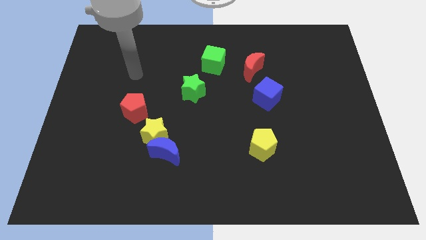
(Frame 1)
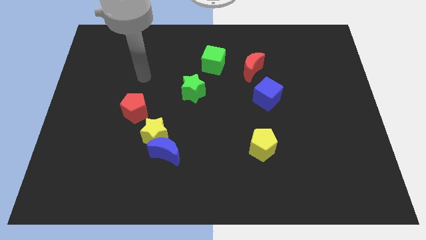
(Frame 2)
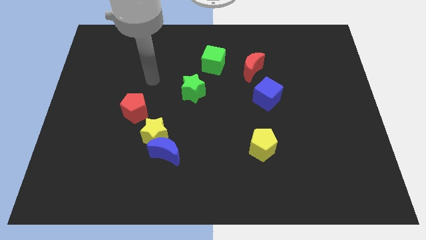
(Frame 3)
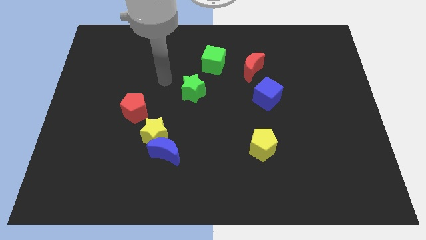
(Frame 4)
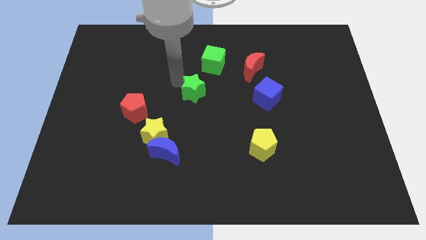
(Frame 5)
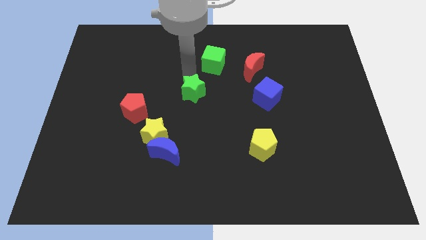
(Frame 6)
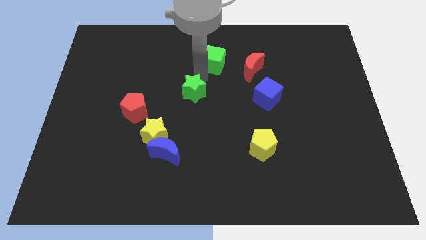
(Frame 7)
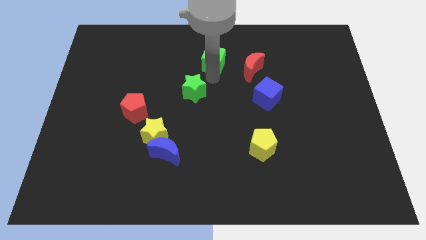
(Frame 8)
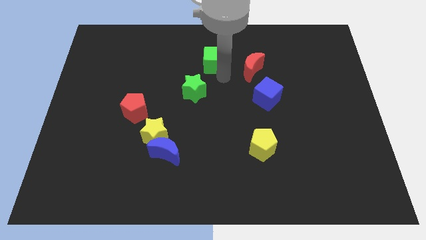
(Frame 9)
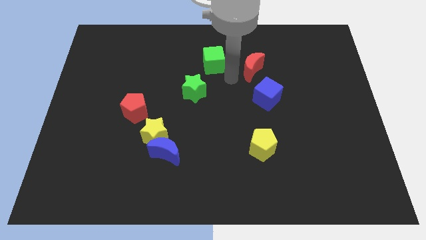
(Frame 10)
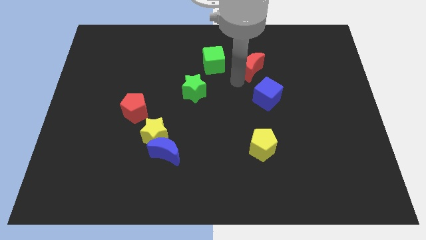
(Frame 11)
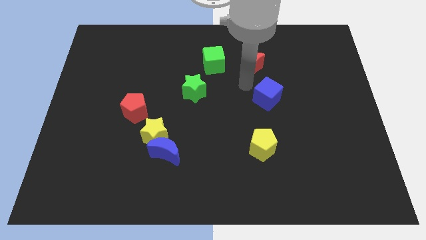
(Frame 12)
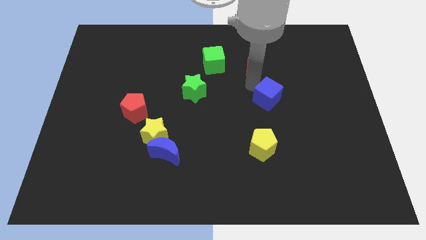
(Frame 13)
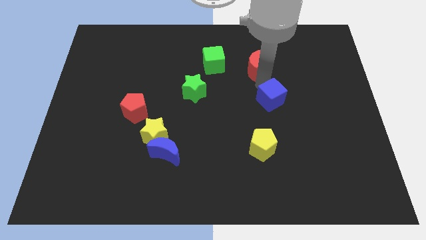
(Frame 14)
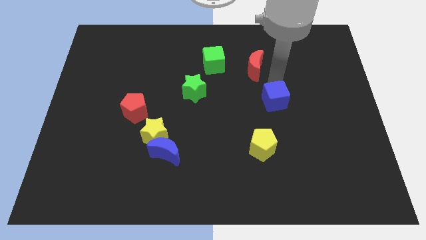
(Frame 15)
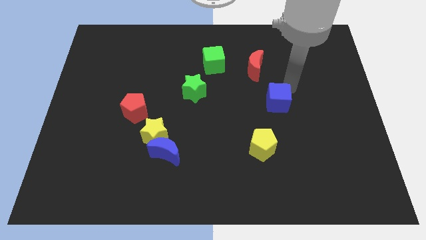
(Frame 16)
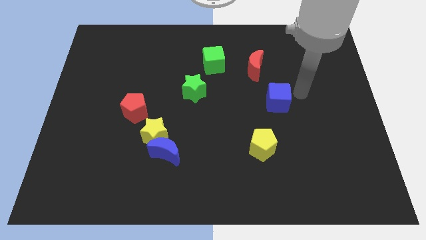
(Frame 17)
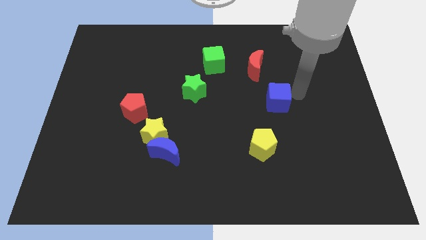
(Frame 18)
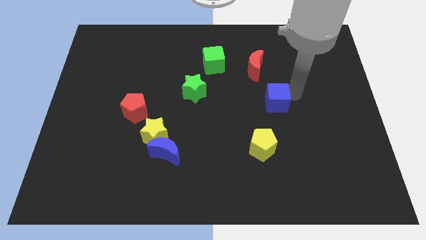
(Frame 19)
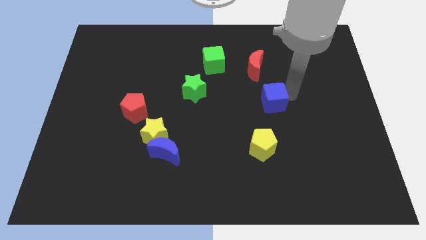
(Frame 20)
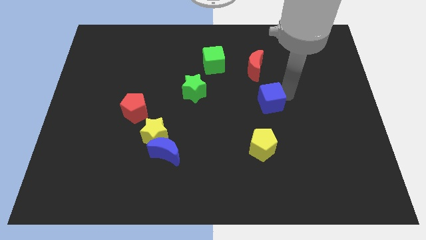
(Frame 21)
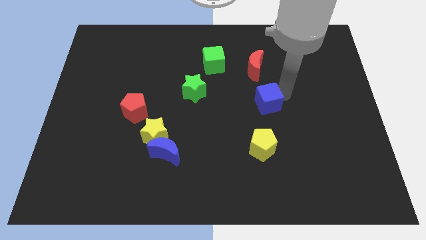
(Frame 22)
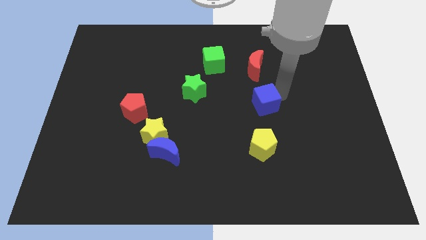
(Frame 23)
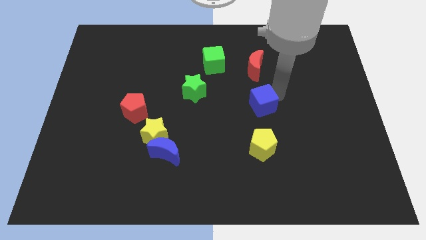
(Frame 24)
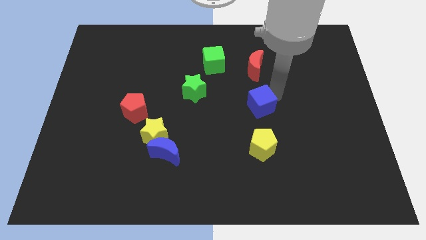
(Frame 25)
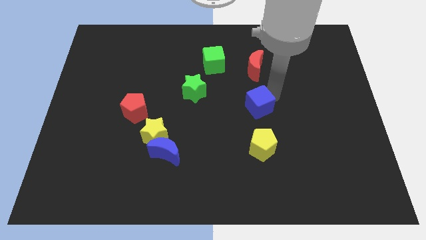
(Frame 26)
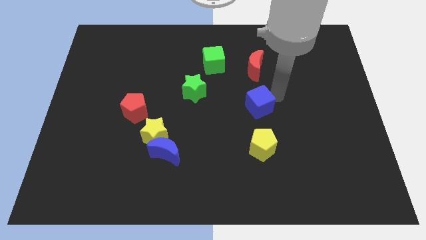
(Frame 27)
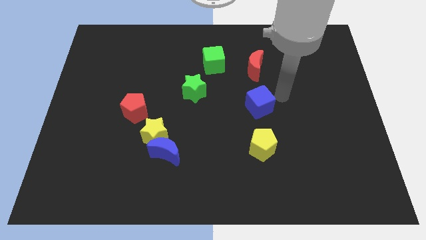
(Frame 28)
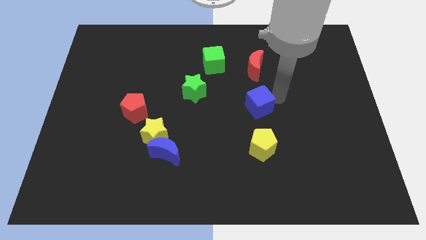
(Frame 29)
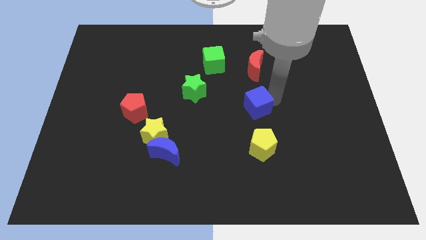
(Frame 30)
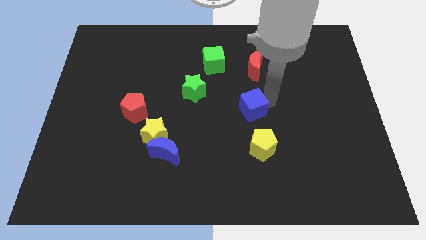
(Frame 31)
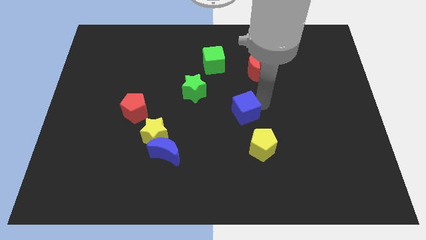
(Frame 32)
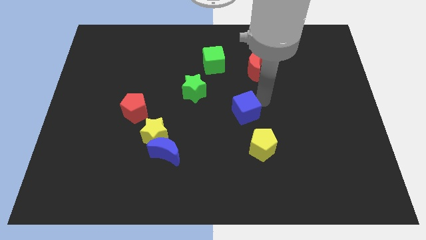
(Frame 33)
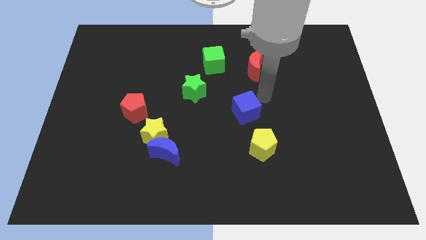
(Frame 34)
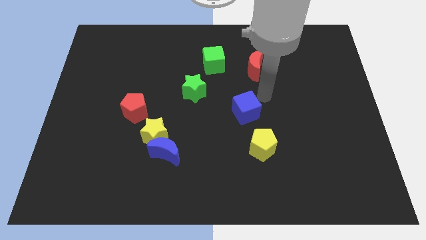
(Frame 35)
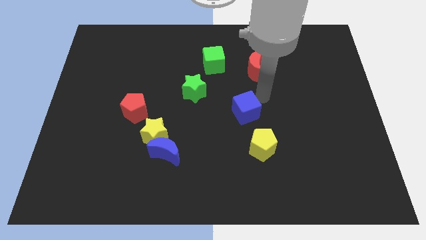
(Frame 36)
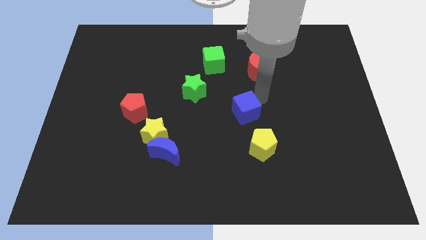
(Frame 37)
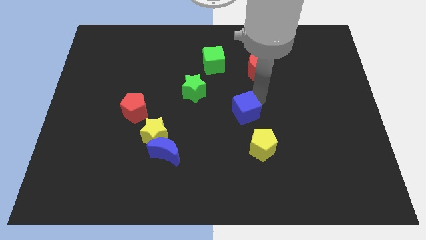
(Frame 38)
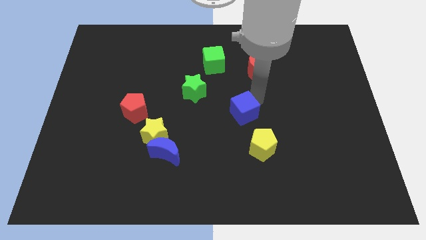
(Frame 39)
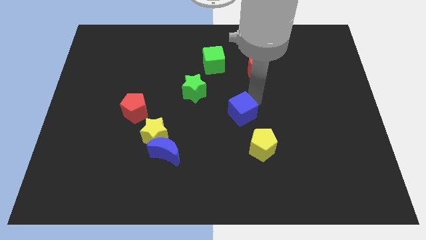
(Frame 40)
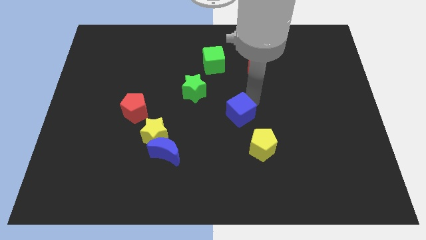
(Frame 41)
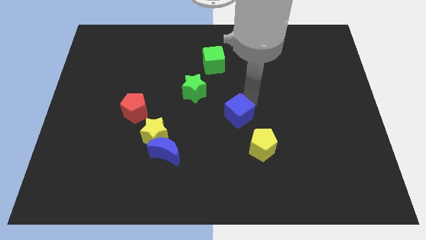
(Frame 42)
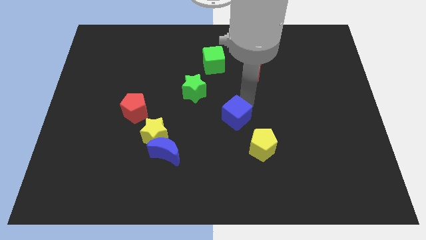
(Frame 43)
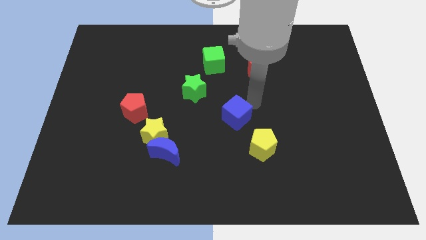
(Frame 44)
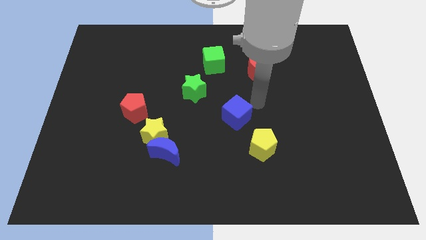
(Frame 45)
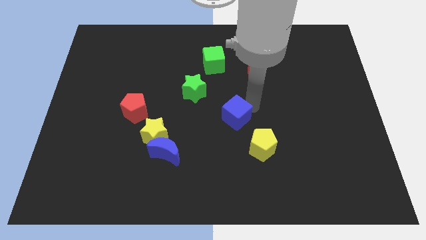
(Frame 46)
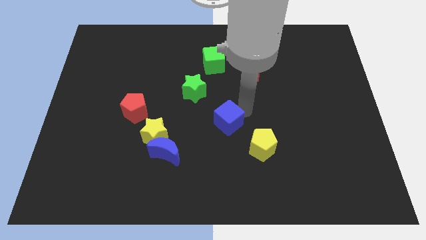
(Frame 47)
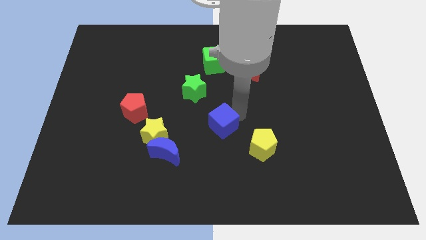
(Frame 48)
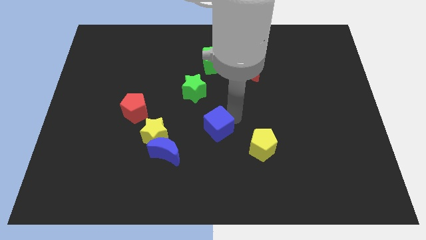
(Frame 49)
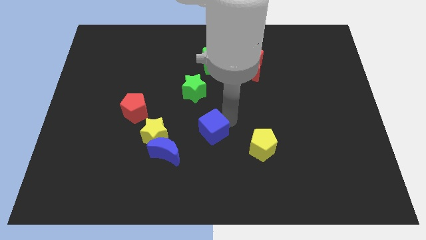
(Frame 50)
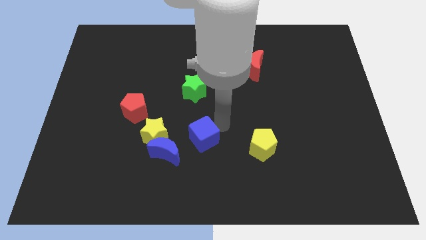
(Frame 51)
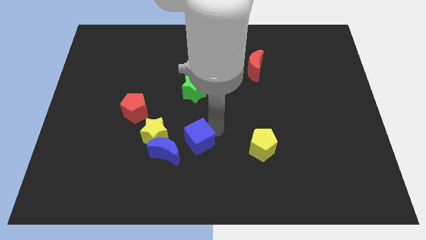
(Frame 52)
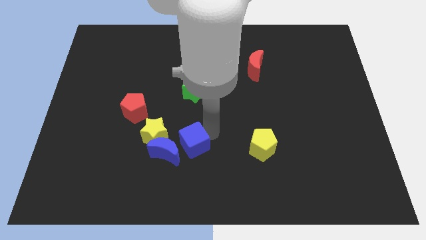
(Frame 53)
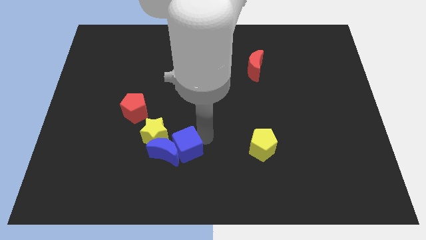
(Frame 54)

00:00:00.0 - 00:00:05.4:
put the blue cube close to the blue moon

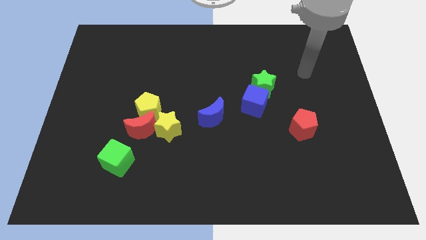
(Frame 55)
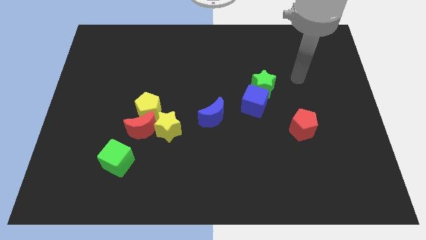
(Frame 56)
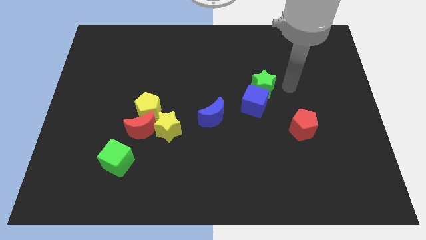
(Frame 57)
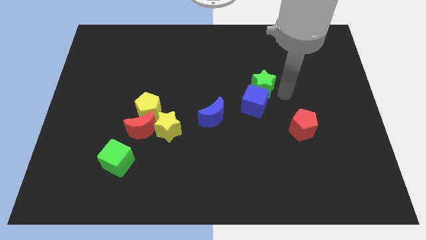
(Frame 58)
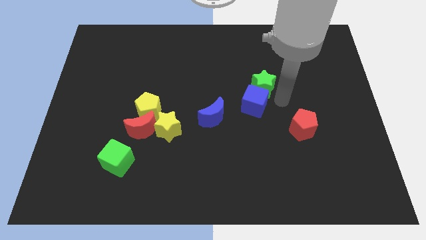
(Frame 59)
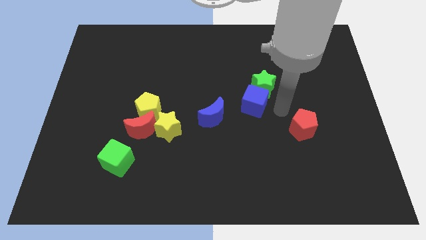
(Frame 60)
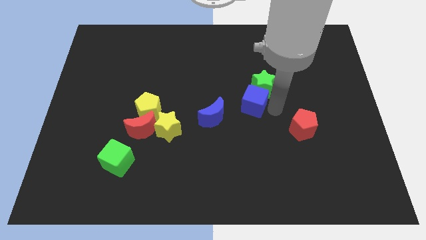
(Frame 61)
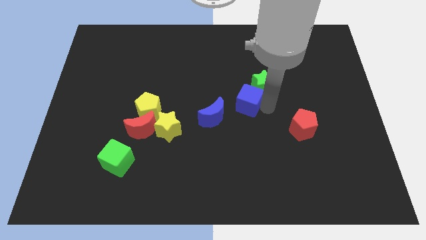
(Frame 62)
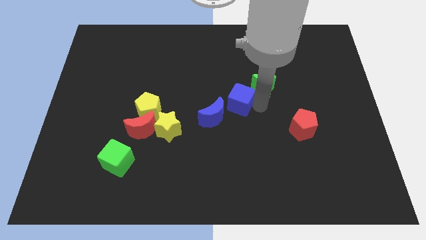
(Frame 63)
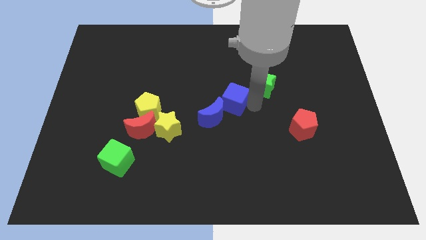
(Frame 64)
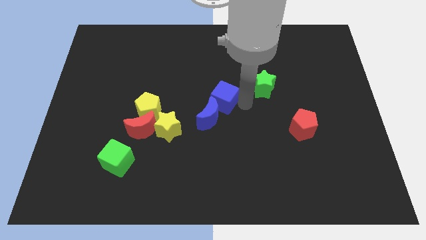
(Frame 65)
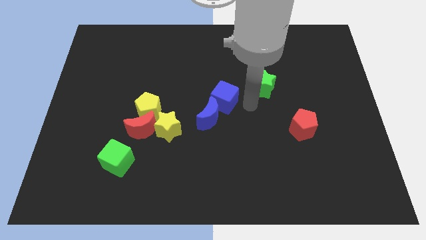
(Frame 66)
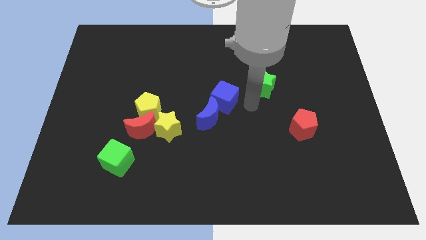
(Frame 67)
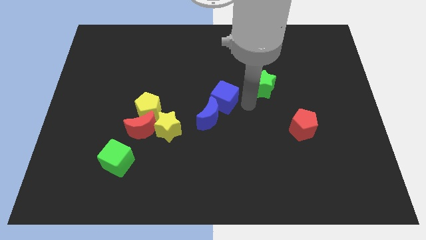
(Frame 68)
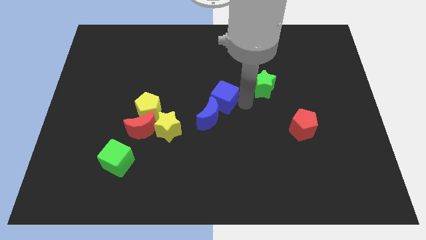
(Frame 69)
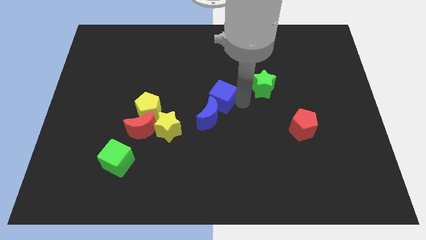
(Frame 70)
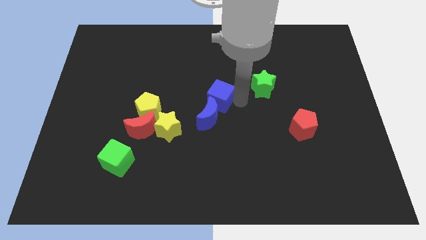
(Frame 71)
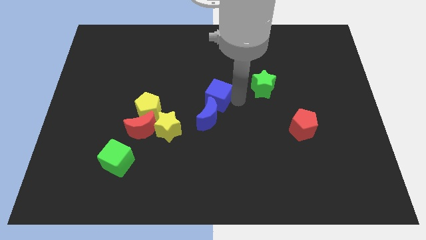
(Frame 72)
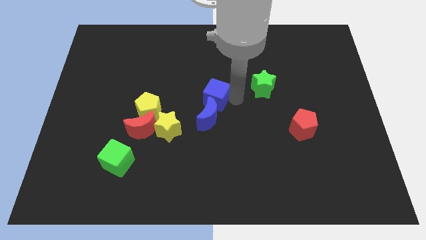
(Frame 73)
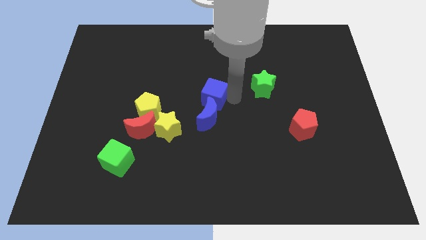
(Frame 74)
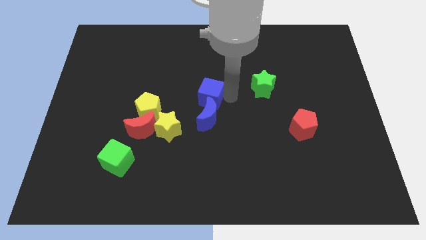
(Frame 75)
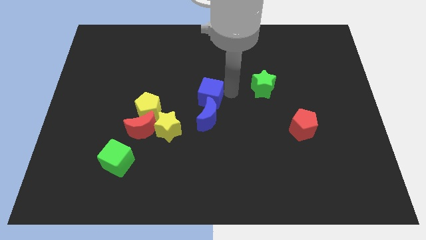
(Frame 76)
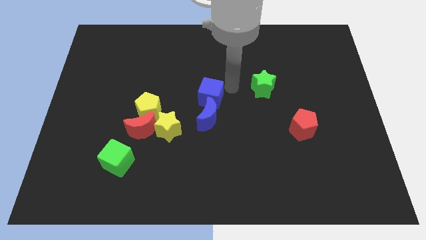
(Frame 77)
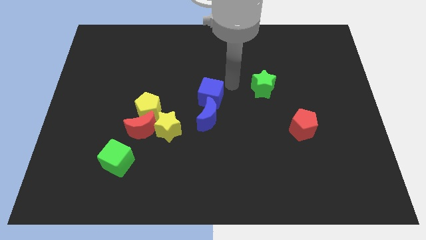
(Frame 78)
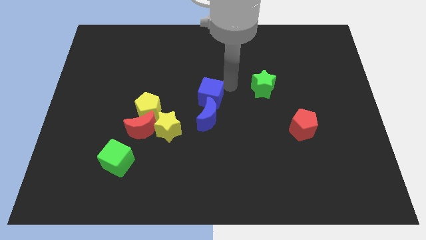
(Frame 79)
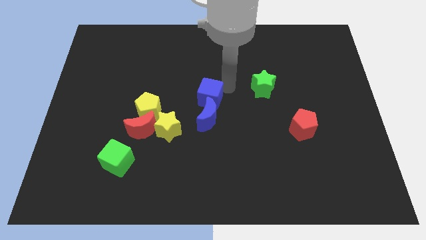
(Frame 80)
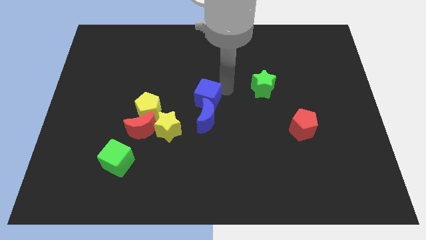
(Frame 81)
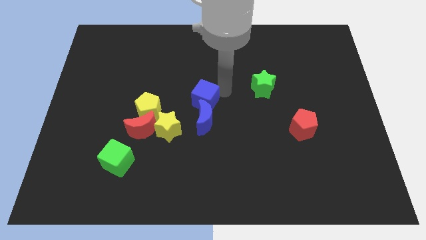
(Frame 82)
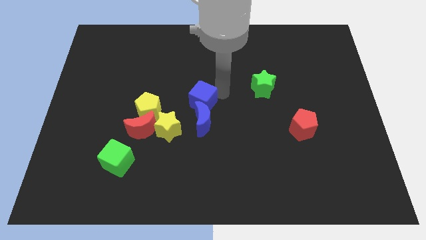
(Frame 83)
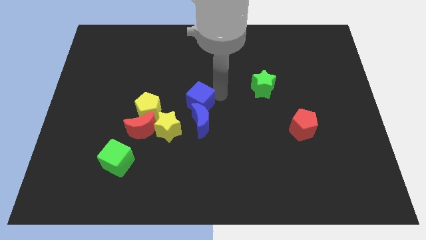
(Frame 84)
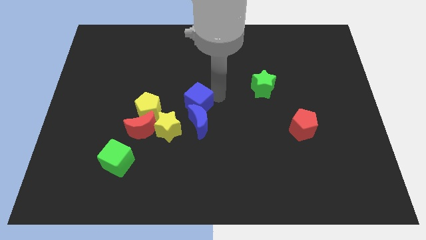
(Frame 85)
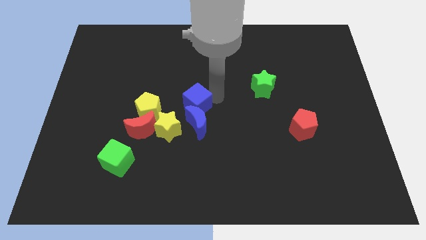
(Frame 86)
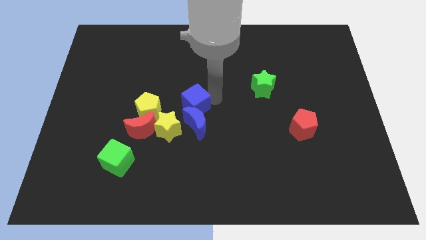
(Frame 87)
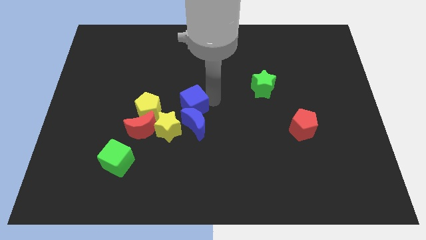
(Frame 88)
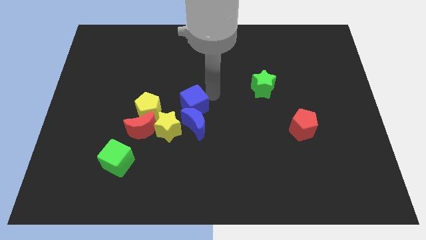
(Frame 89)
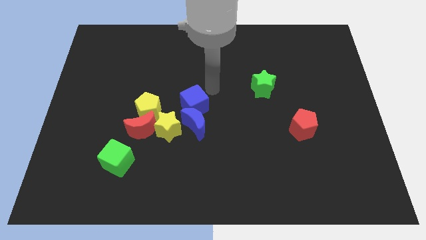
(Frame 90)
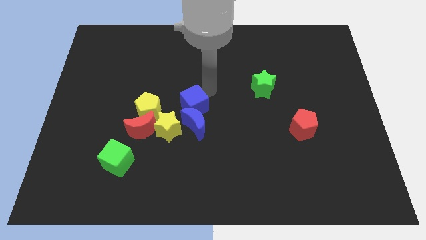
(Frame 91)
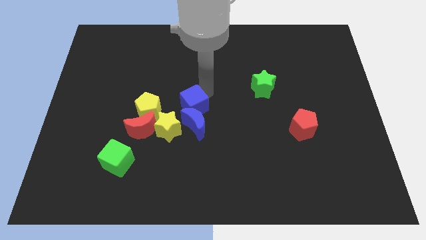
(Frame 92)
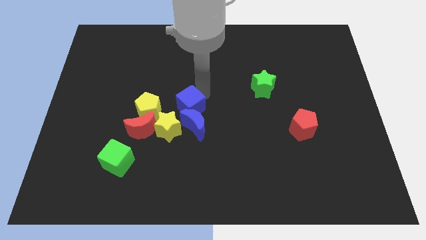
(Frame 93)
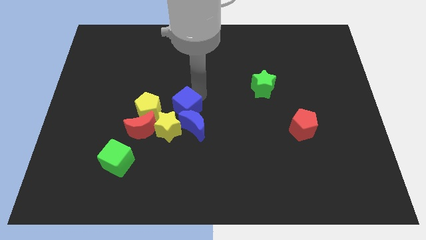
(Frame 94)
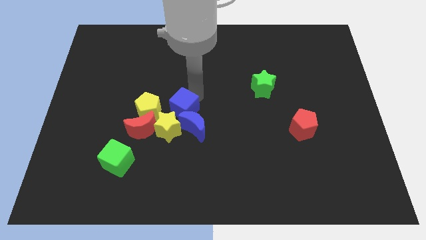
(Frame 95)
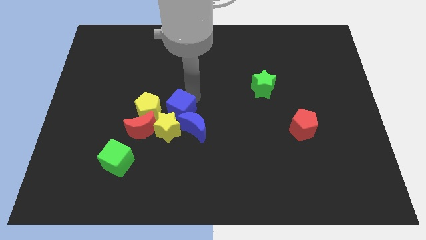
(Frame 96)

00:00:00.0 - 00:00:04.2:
push the blue cube to the yellow star
